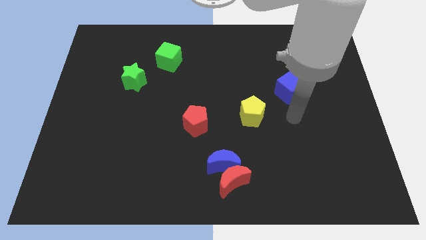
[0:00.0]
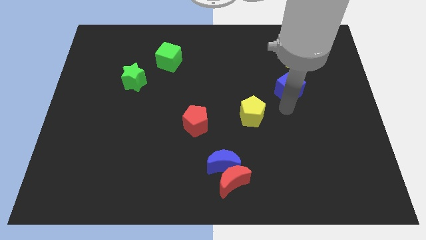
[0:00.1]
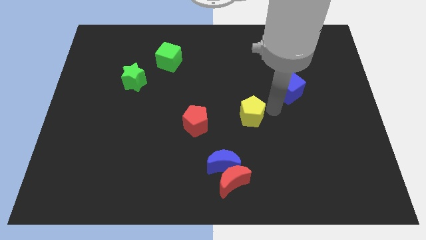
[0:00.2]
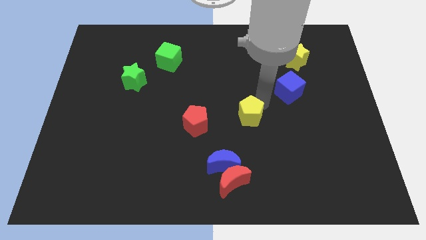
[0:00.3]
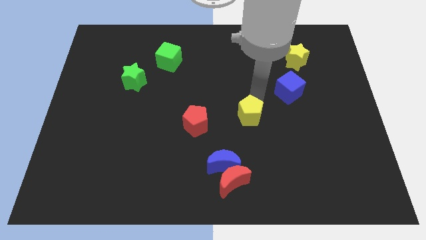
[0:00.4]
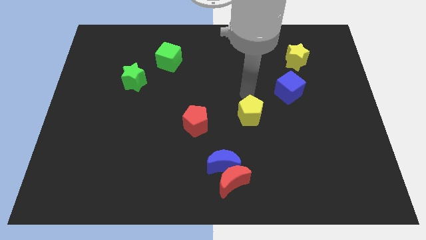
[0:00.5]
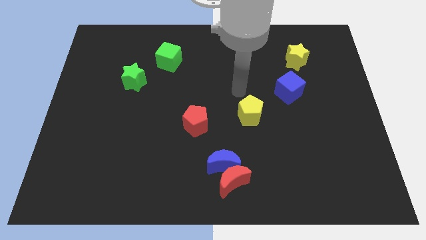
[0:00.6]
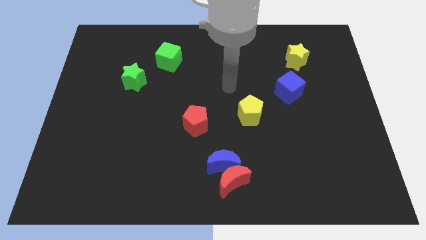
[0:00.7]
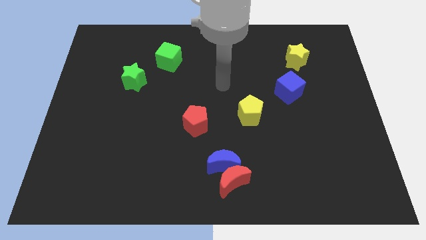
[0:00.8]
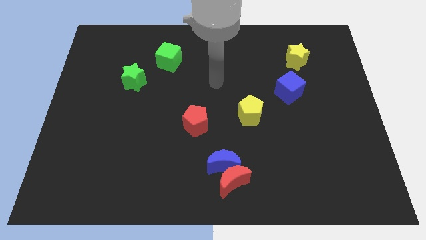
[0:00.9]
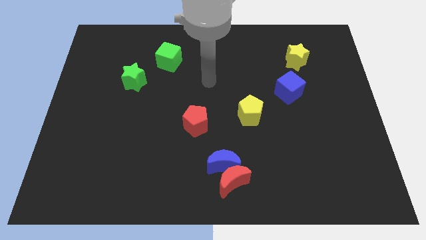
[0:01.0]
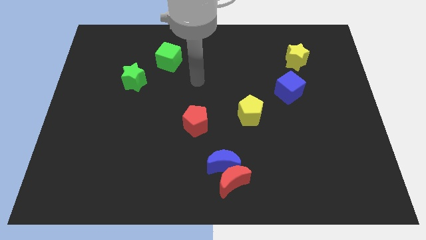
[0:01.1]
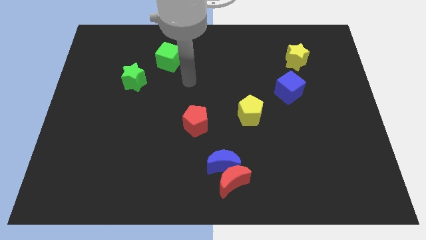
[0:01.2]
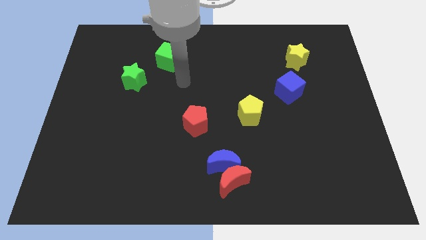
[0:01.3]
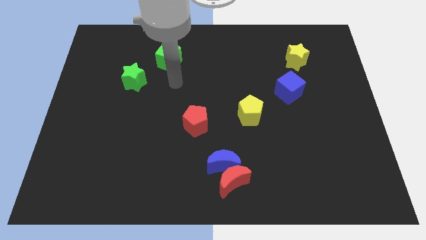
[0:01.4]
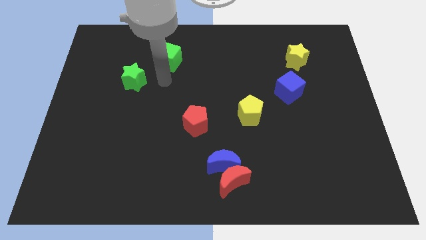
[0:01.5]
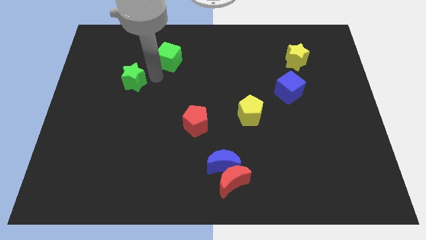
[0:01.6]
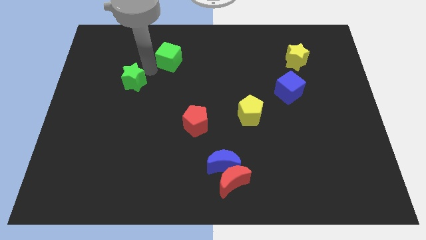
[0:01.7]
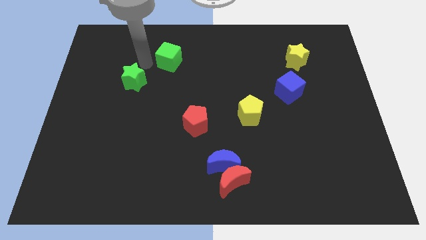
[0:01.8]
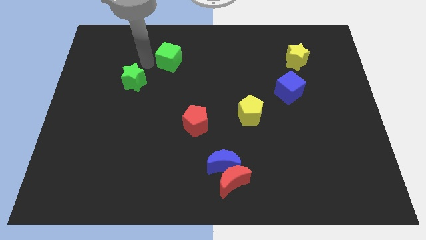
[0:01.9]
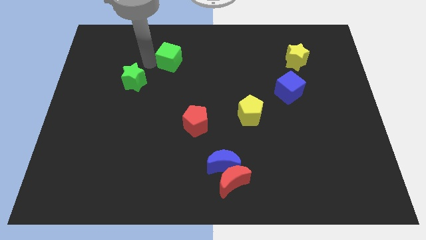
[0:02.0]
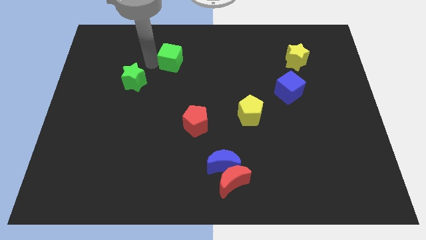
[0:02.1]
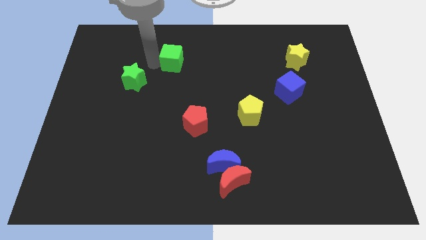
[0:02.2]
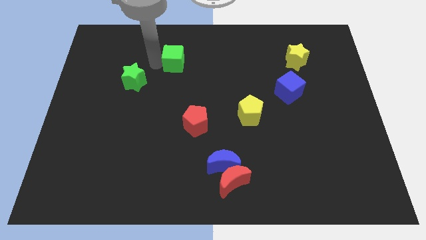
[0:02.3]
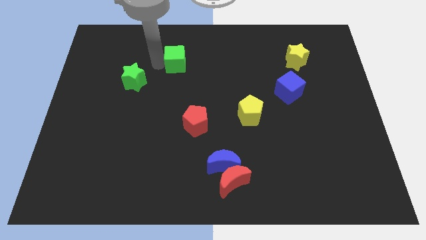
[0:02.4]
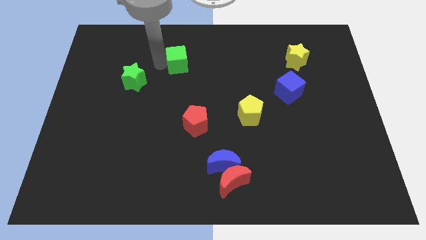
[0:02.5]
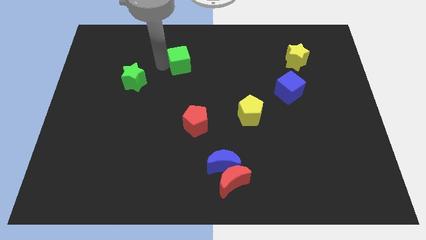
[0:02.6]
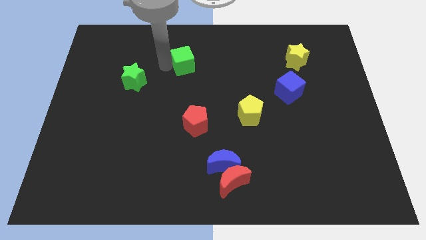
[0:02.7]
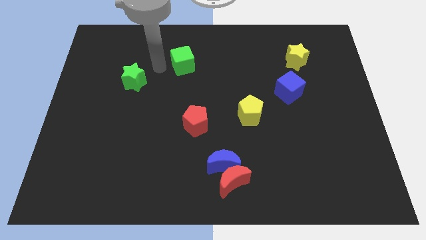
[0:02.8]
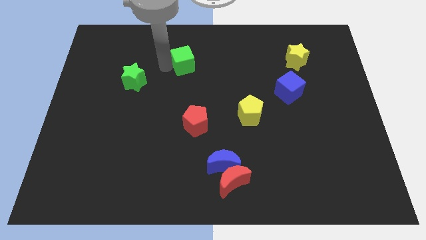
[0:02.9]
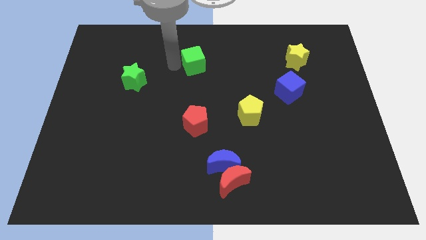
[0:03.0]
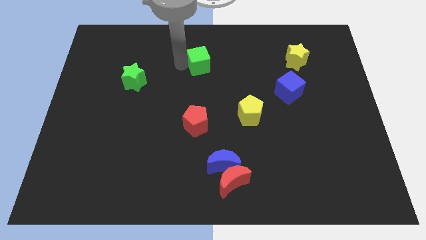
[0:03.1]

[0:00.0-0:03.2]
slide the green cube to the right somewhat

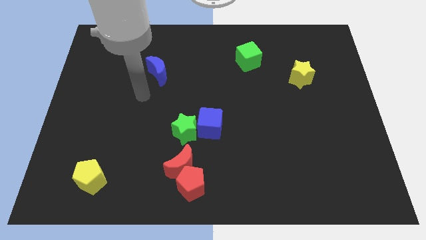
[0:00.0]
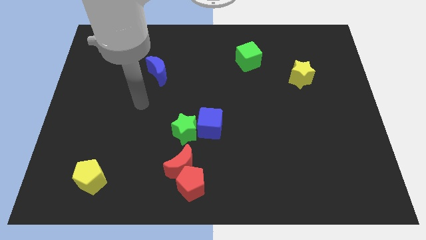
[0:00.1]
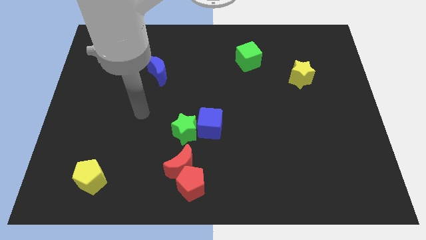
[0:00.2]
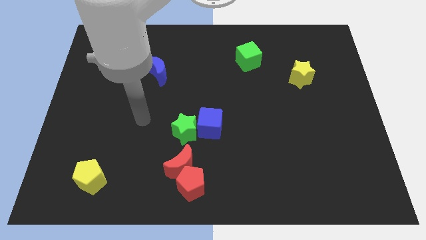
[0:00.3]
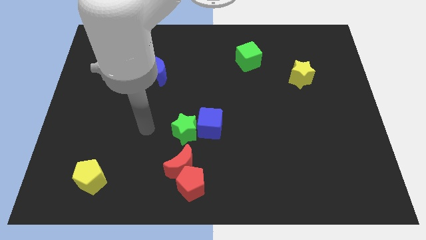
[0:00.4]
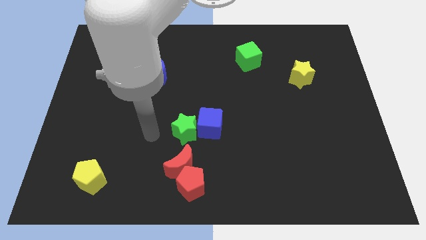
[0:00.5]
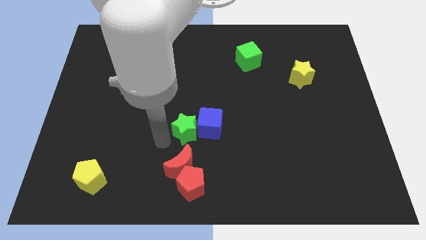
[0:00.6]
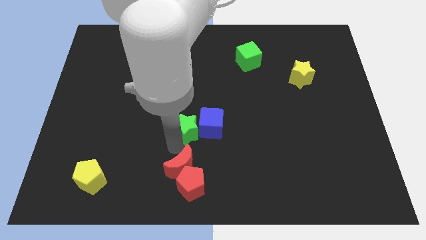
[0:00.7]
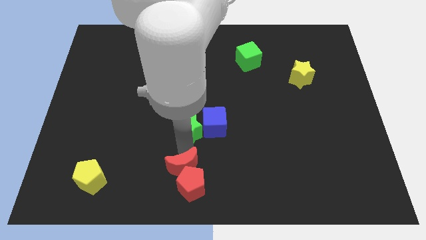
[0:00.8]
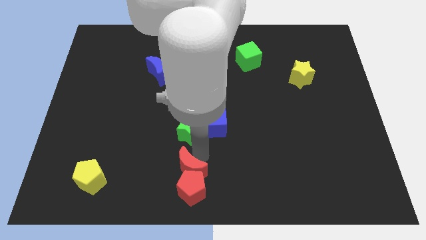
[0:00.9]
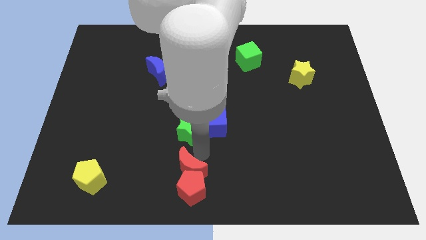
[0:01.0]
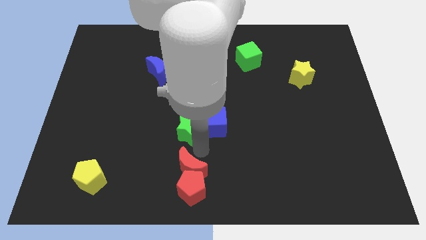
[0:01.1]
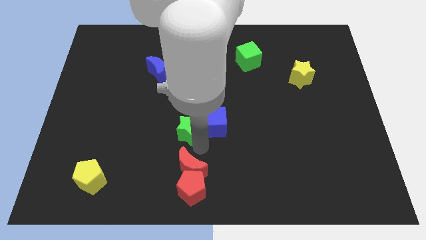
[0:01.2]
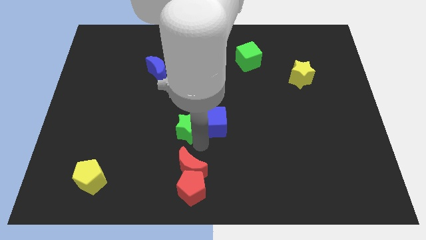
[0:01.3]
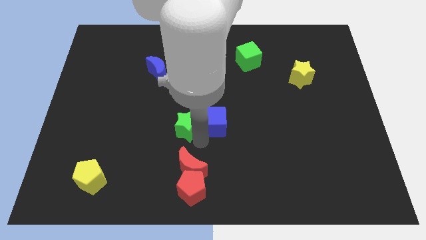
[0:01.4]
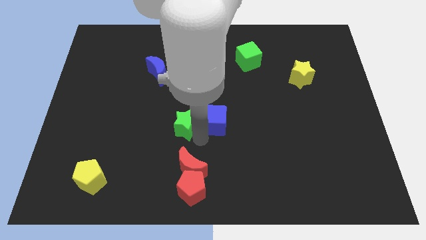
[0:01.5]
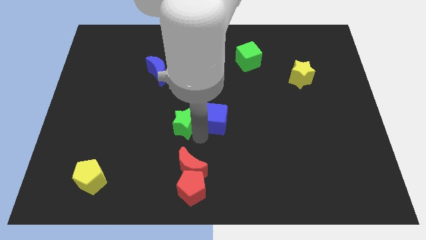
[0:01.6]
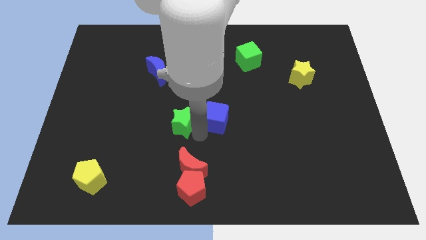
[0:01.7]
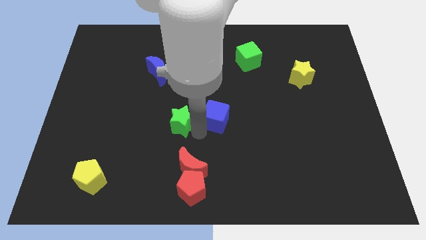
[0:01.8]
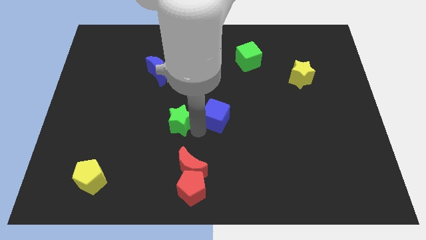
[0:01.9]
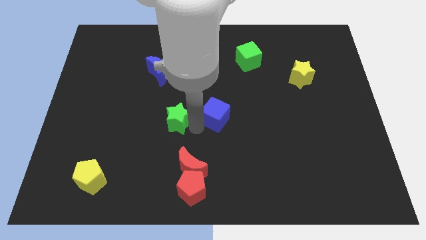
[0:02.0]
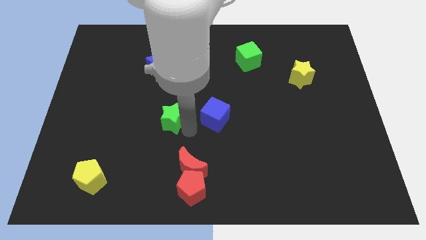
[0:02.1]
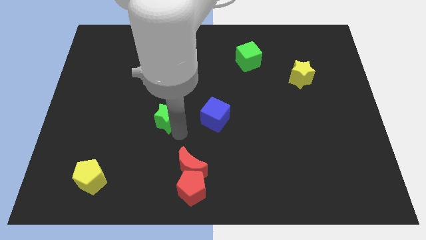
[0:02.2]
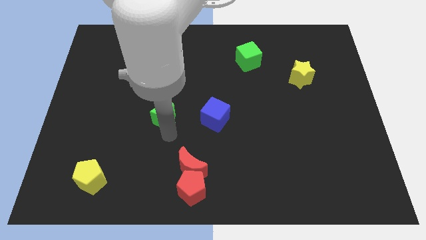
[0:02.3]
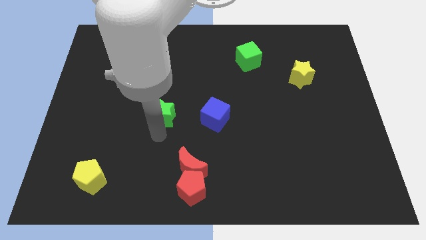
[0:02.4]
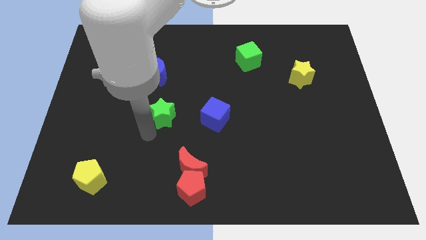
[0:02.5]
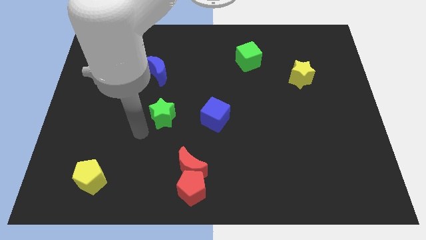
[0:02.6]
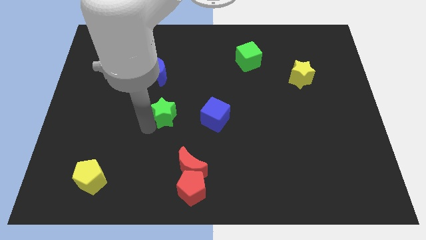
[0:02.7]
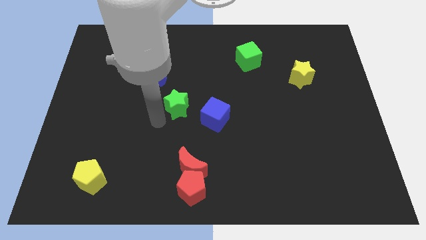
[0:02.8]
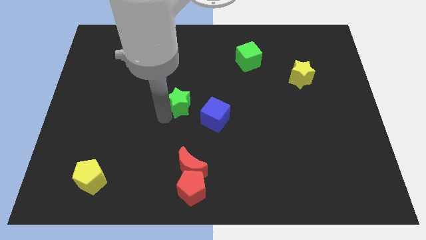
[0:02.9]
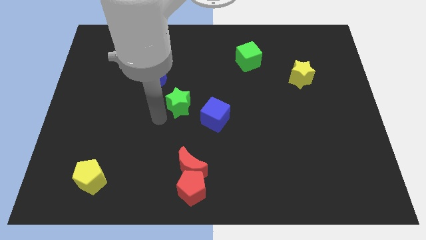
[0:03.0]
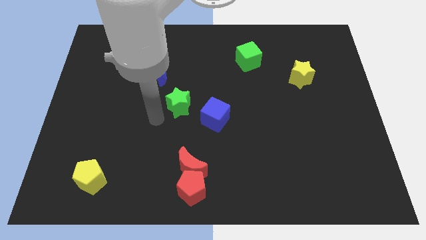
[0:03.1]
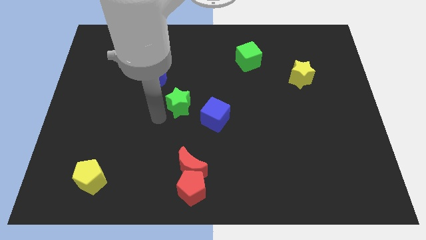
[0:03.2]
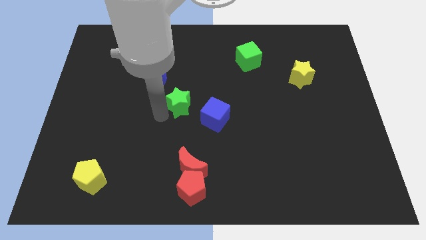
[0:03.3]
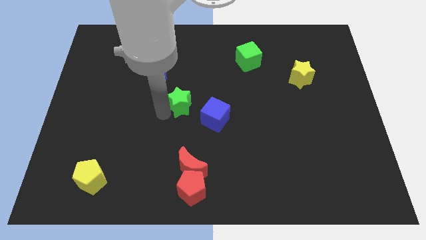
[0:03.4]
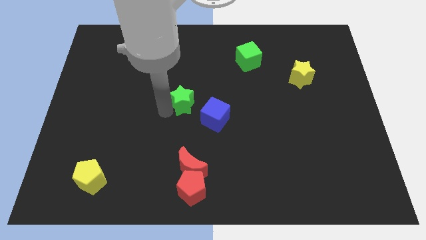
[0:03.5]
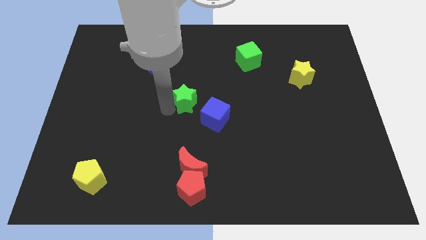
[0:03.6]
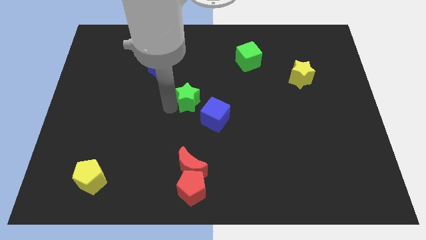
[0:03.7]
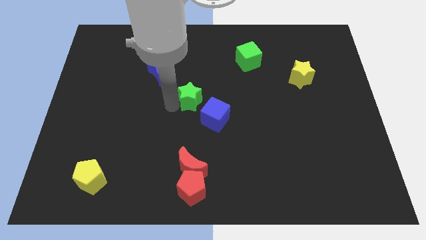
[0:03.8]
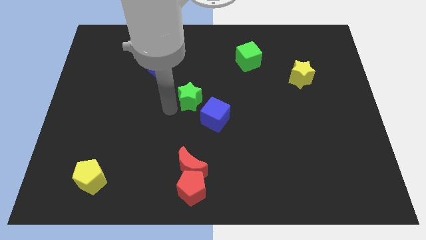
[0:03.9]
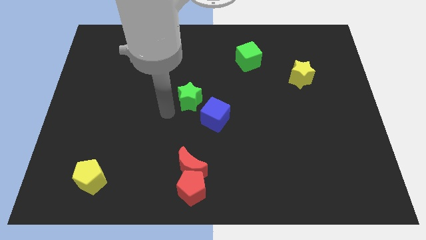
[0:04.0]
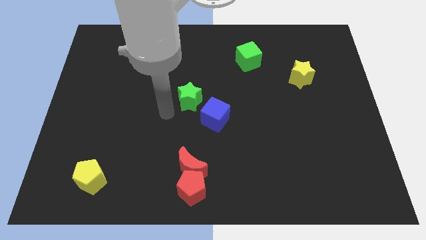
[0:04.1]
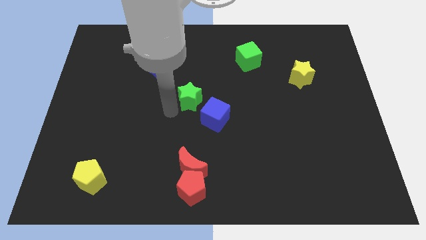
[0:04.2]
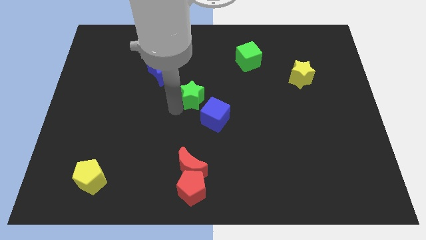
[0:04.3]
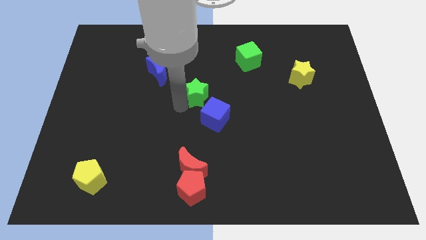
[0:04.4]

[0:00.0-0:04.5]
slightly push the green star diagonally up and to the right

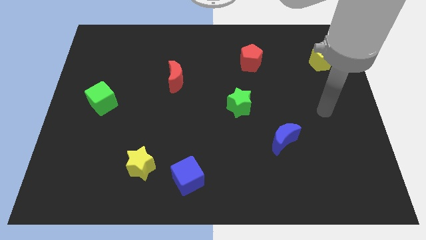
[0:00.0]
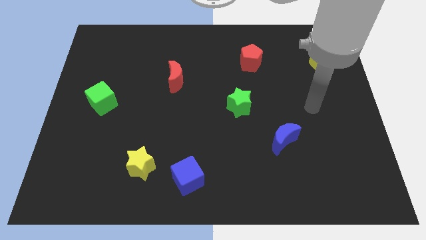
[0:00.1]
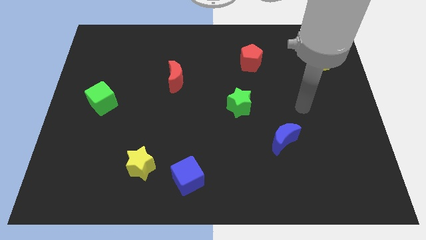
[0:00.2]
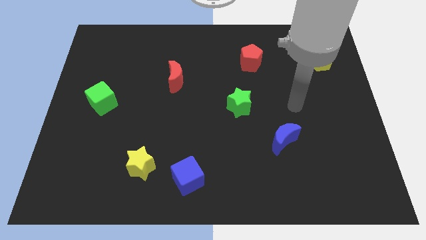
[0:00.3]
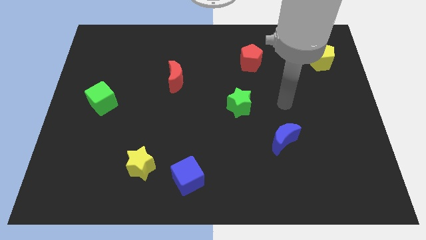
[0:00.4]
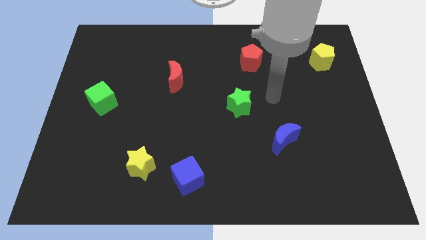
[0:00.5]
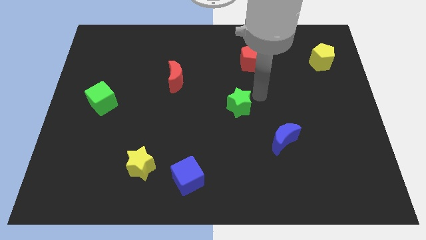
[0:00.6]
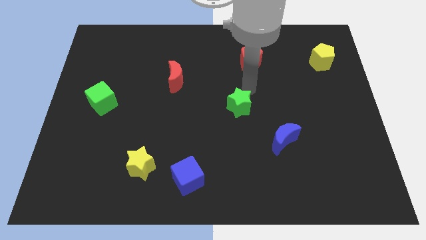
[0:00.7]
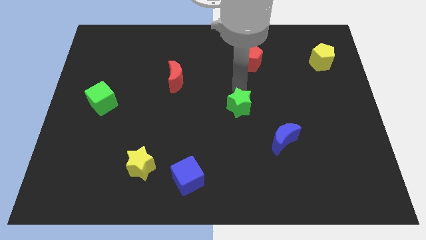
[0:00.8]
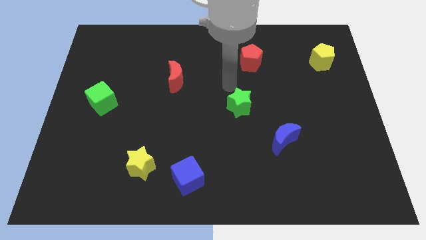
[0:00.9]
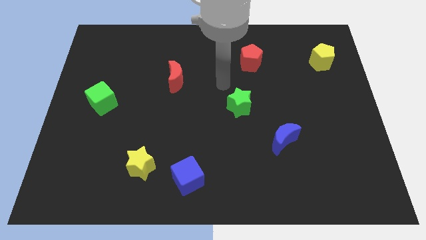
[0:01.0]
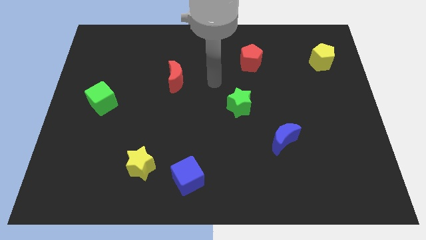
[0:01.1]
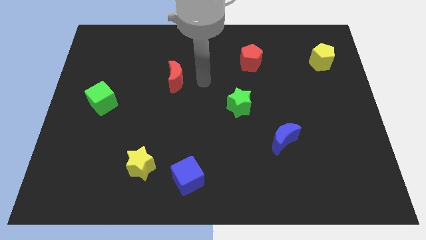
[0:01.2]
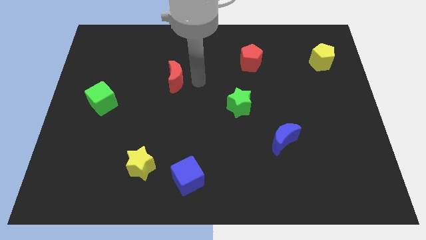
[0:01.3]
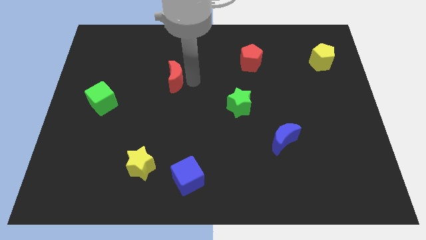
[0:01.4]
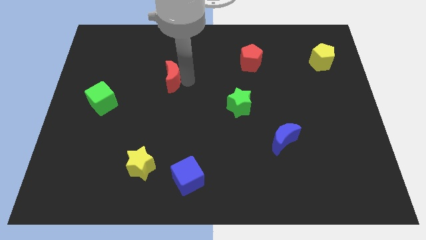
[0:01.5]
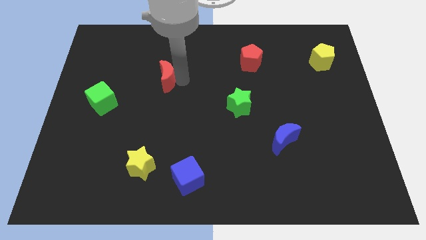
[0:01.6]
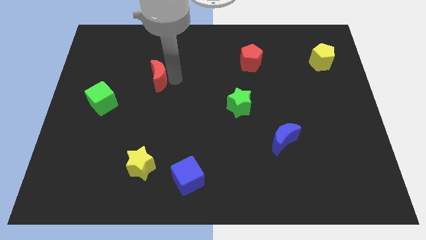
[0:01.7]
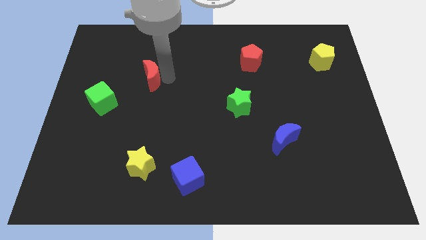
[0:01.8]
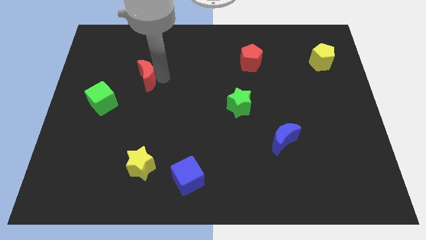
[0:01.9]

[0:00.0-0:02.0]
slightly move the red moon to the left
